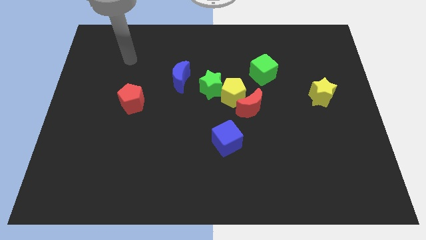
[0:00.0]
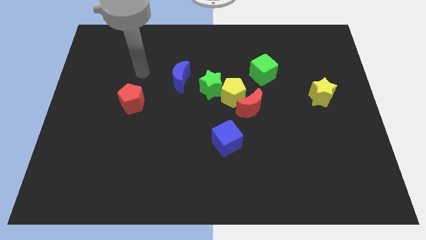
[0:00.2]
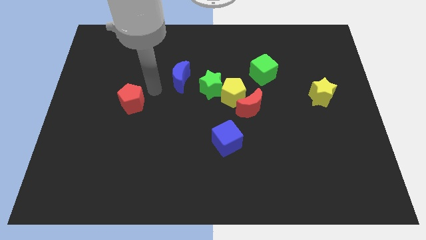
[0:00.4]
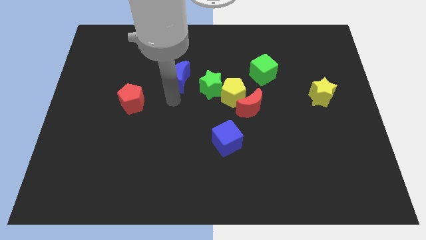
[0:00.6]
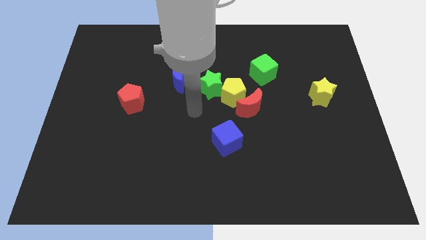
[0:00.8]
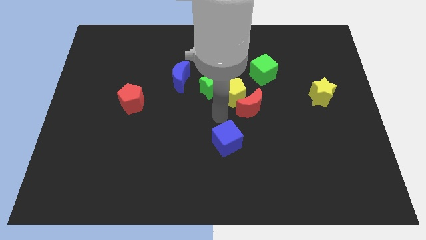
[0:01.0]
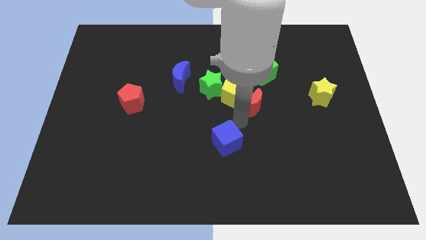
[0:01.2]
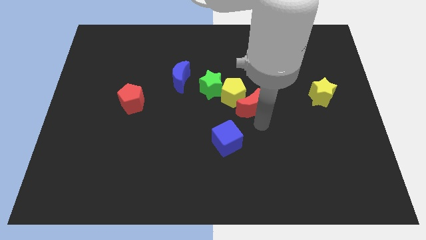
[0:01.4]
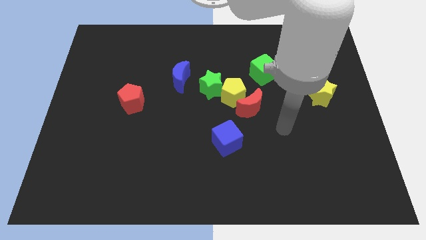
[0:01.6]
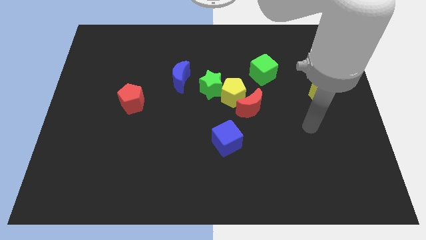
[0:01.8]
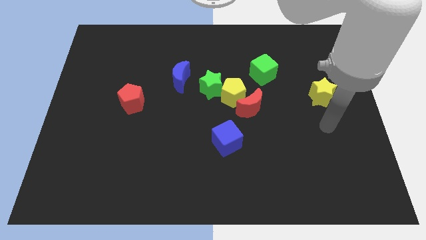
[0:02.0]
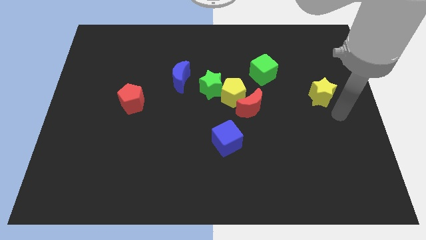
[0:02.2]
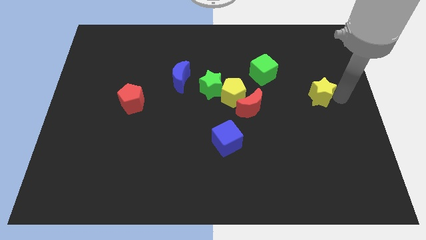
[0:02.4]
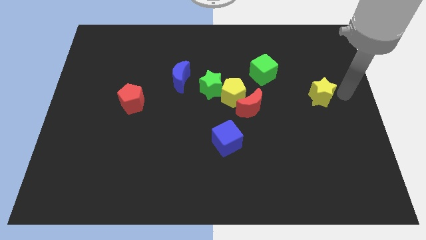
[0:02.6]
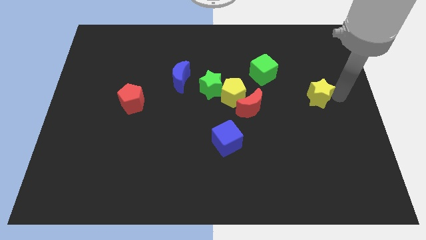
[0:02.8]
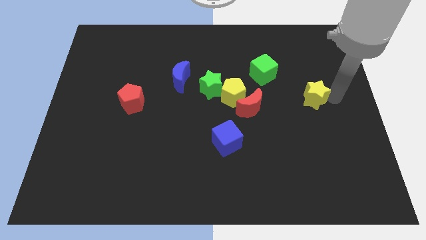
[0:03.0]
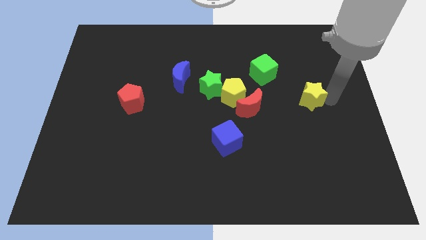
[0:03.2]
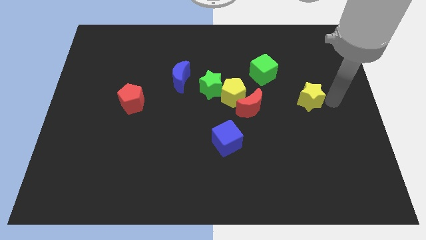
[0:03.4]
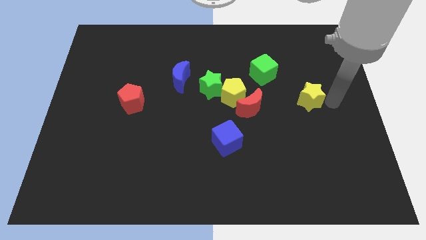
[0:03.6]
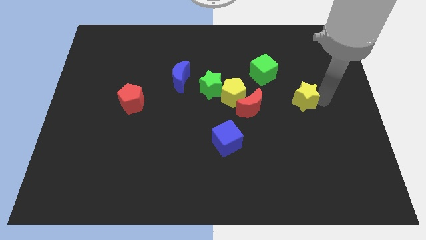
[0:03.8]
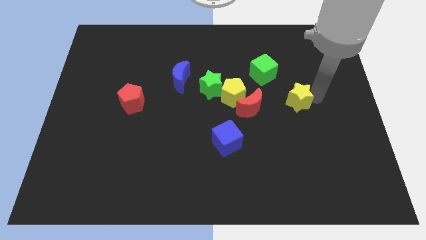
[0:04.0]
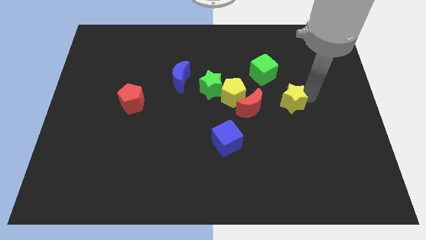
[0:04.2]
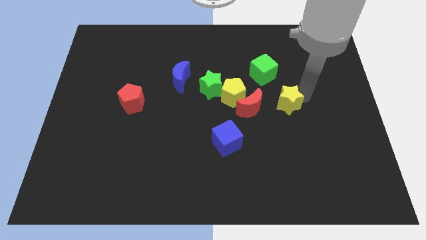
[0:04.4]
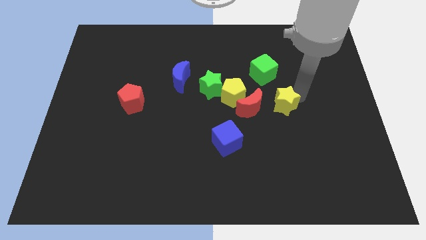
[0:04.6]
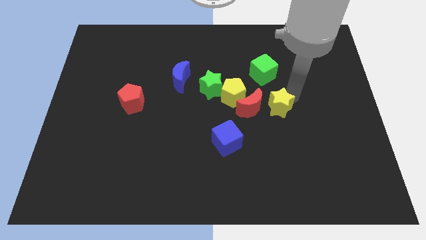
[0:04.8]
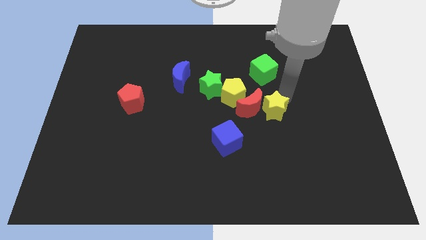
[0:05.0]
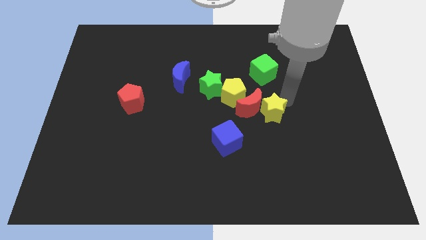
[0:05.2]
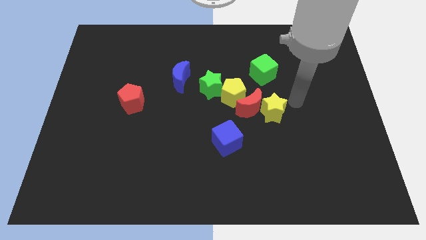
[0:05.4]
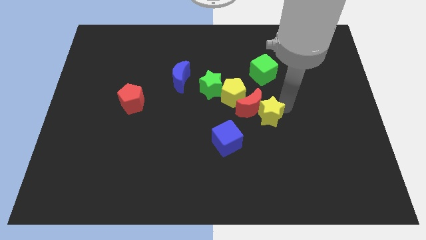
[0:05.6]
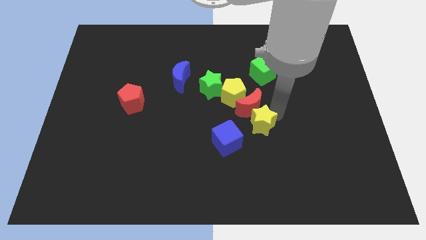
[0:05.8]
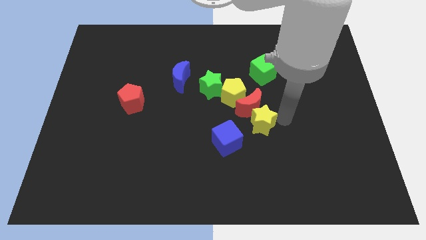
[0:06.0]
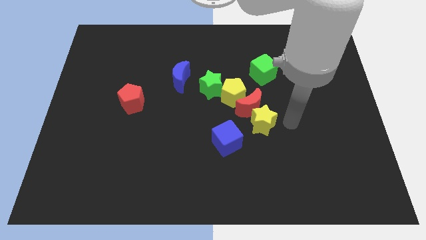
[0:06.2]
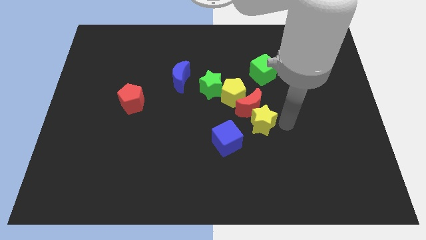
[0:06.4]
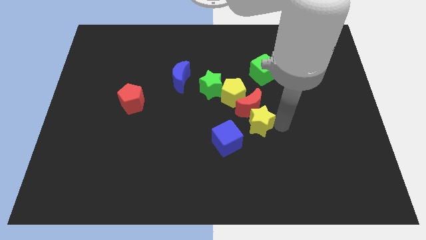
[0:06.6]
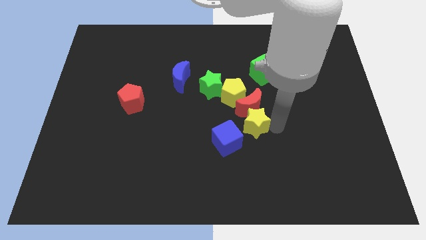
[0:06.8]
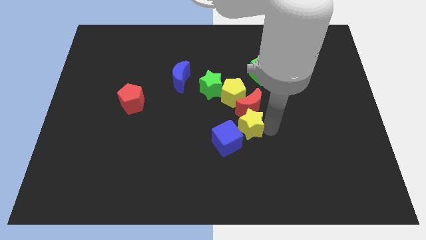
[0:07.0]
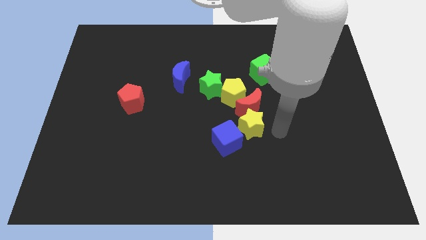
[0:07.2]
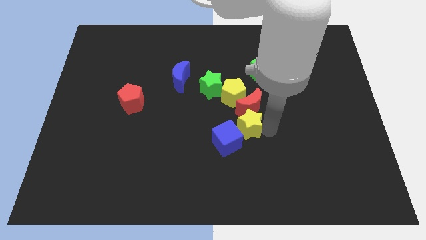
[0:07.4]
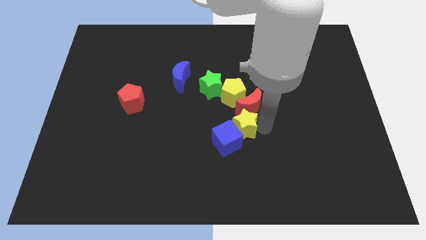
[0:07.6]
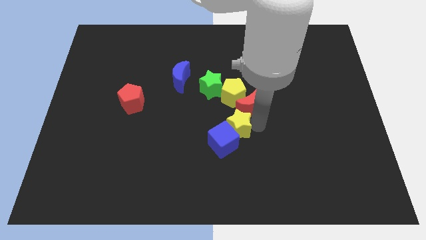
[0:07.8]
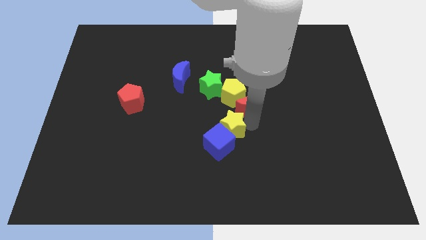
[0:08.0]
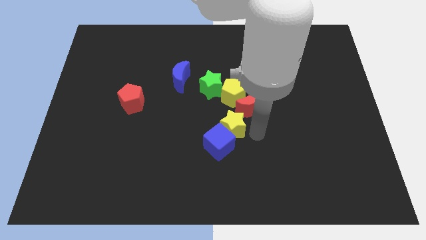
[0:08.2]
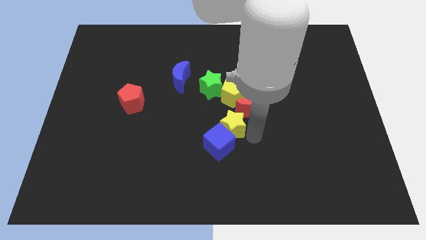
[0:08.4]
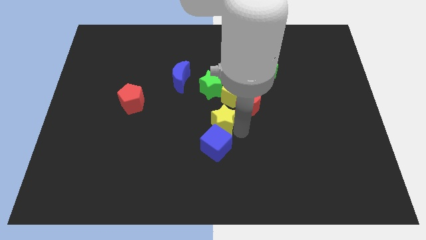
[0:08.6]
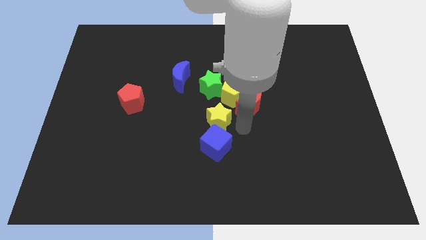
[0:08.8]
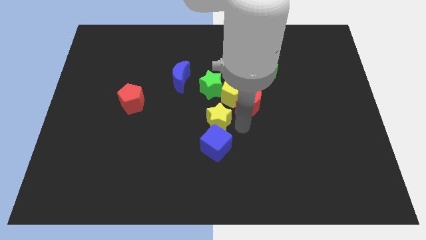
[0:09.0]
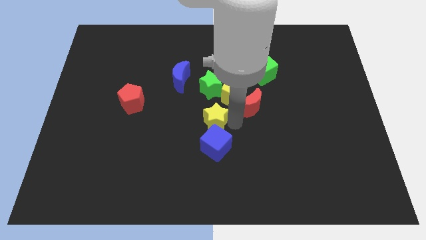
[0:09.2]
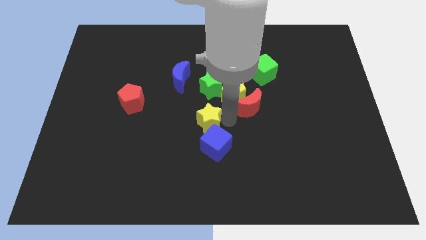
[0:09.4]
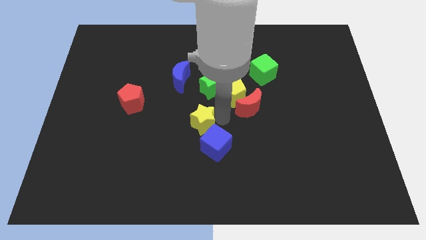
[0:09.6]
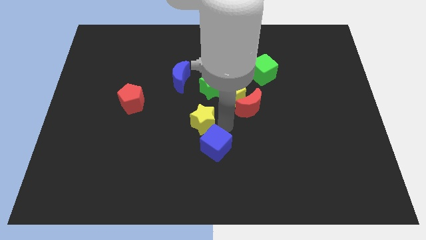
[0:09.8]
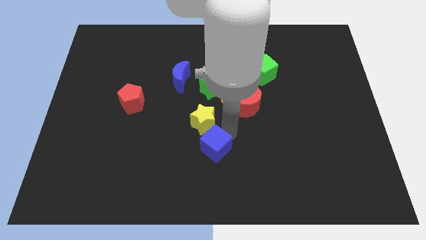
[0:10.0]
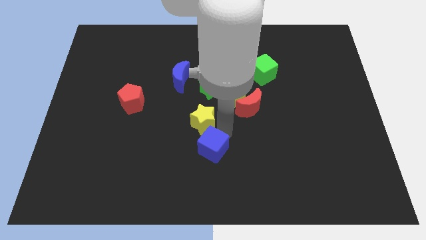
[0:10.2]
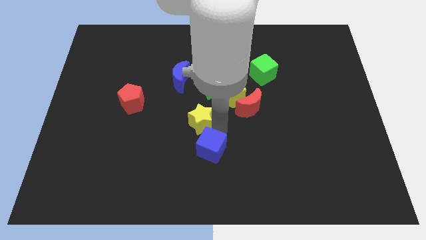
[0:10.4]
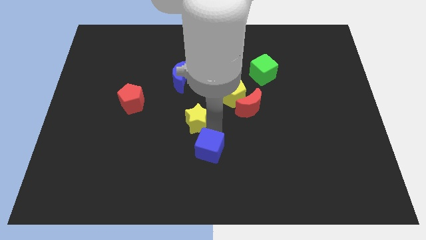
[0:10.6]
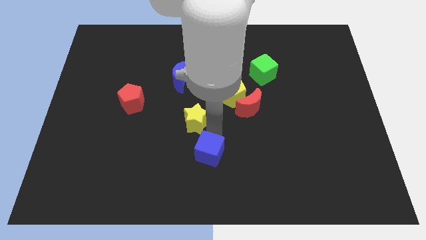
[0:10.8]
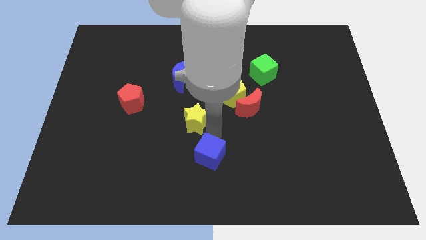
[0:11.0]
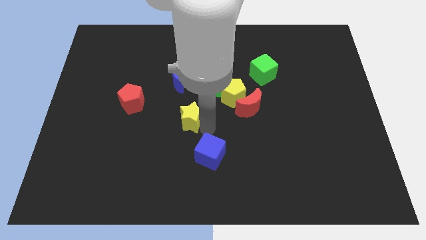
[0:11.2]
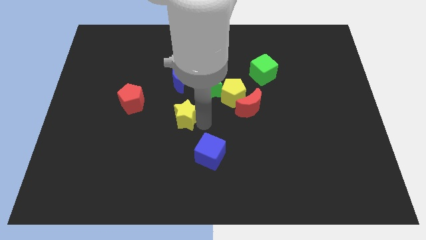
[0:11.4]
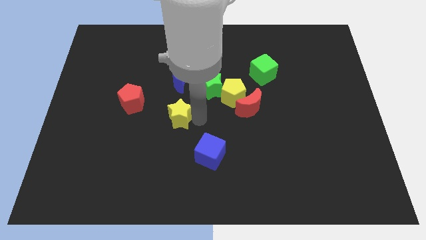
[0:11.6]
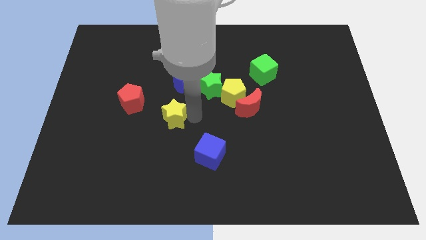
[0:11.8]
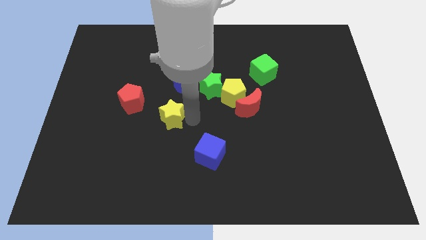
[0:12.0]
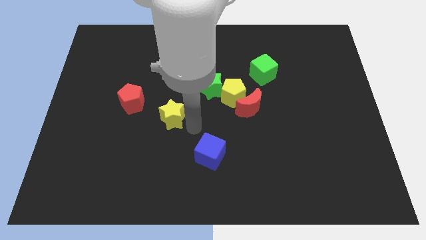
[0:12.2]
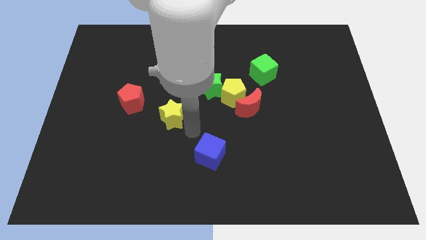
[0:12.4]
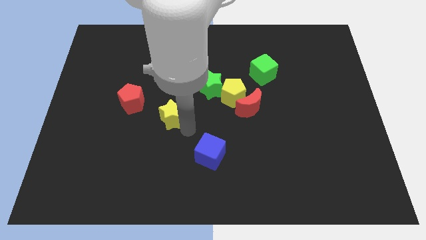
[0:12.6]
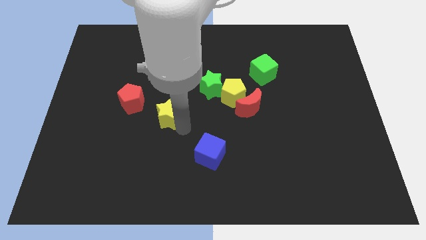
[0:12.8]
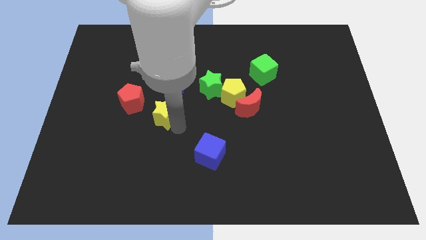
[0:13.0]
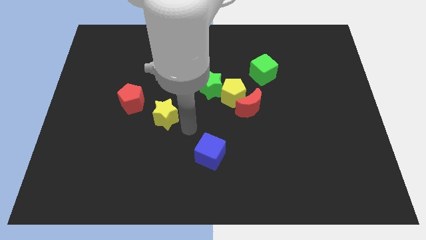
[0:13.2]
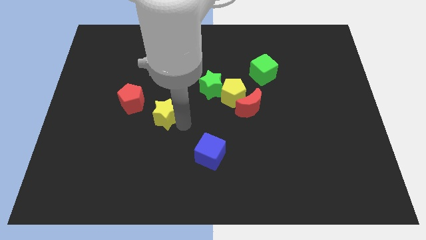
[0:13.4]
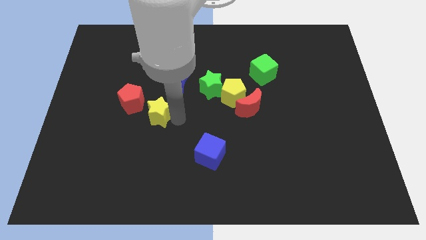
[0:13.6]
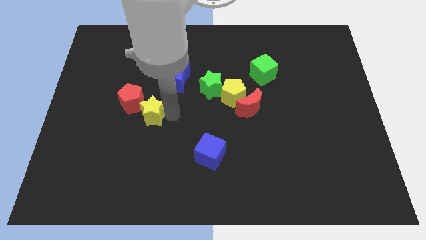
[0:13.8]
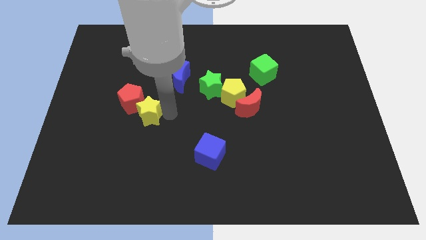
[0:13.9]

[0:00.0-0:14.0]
push the yellow star close to the red pentagon
